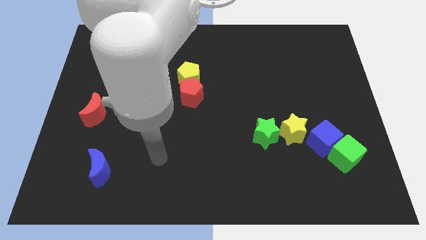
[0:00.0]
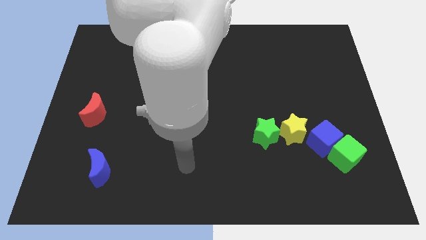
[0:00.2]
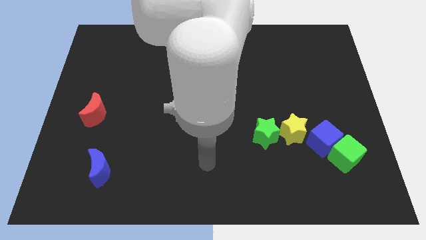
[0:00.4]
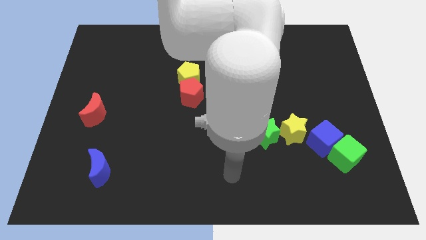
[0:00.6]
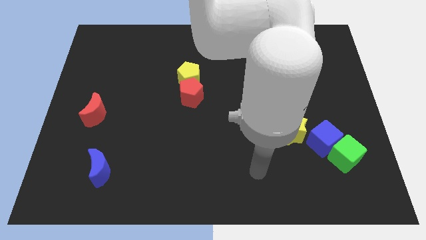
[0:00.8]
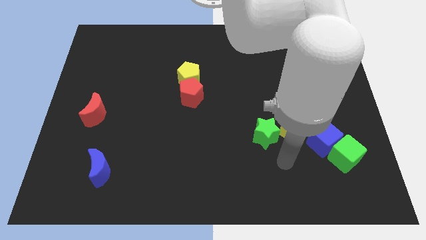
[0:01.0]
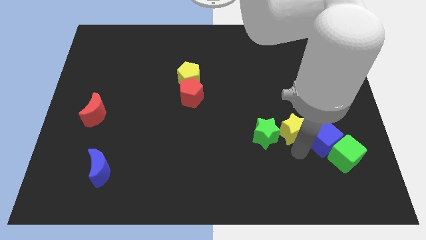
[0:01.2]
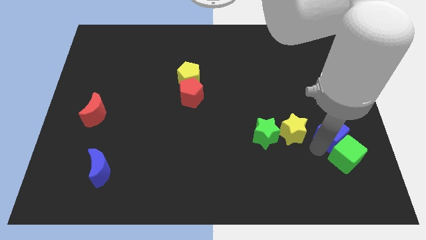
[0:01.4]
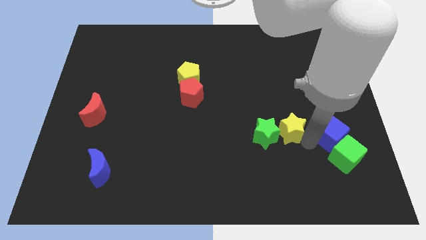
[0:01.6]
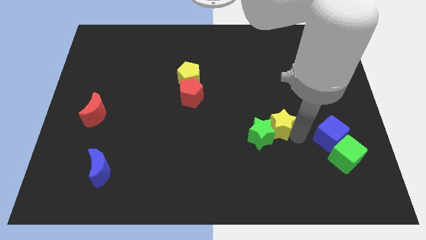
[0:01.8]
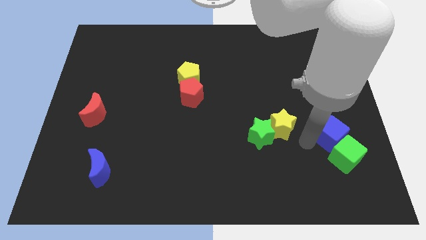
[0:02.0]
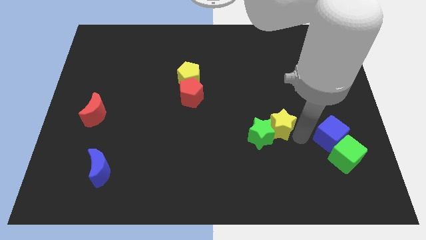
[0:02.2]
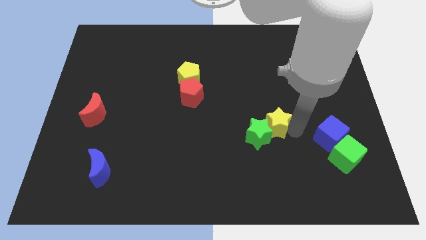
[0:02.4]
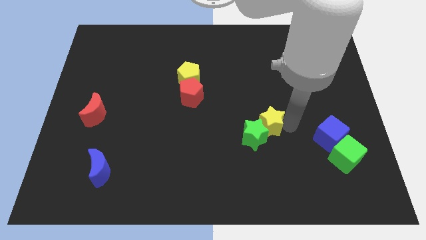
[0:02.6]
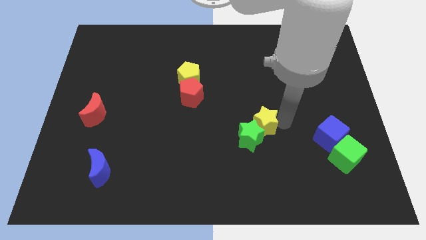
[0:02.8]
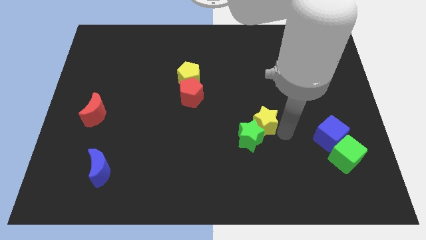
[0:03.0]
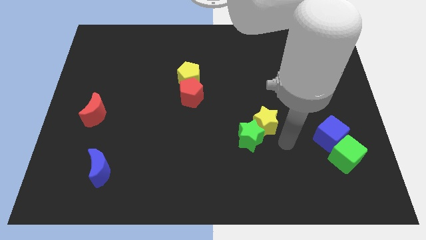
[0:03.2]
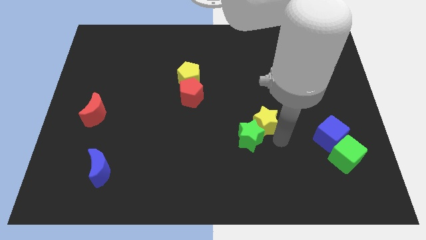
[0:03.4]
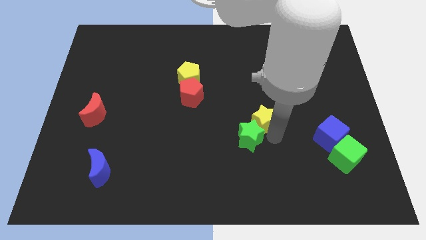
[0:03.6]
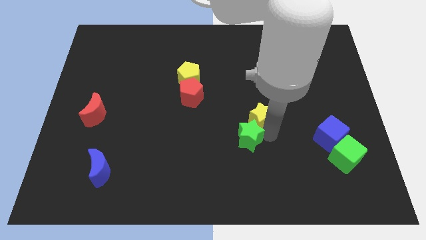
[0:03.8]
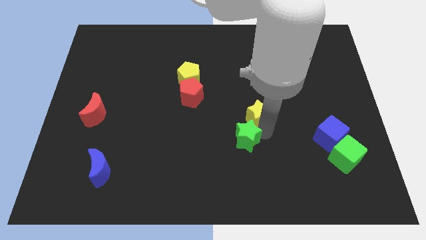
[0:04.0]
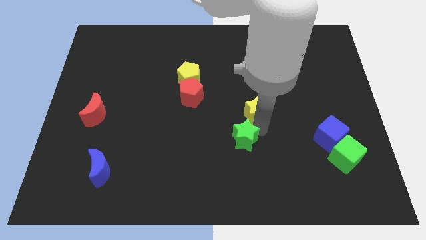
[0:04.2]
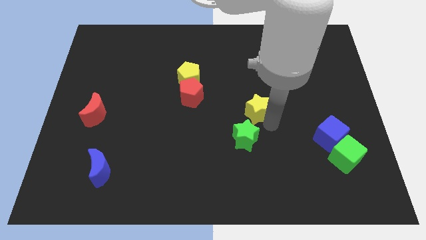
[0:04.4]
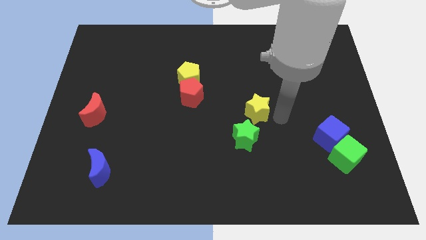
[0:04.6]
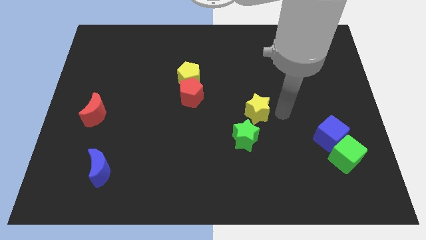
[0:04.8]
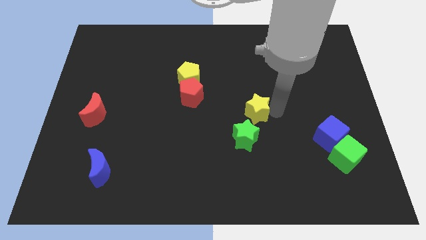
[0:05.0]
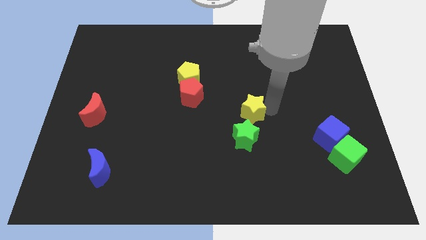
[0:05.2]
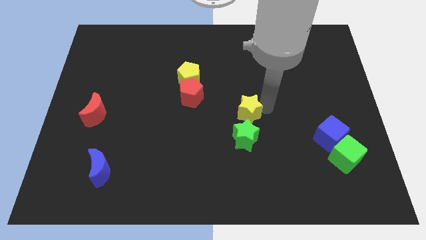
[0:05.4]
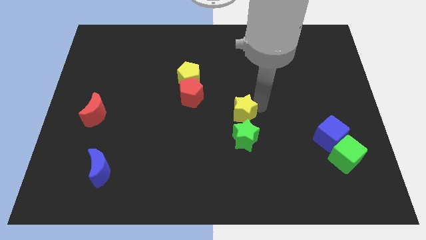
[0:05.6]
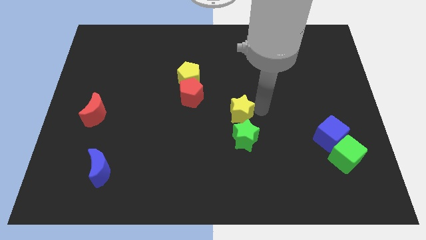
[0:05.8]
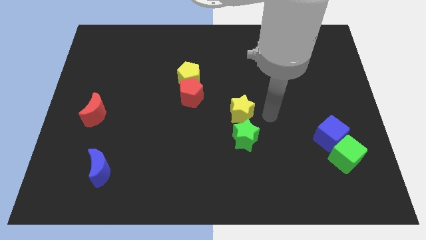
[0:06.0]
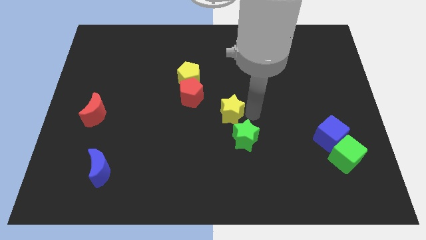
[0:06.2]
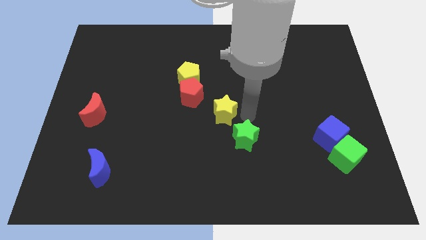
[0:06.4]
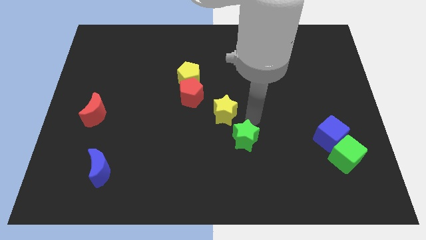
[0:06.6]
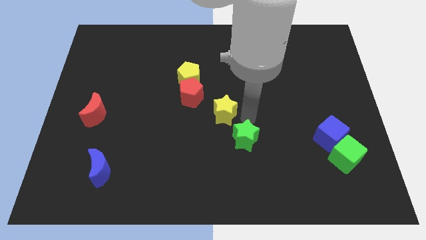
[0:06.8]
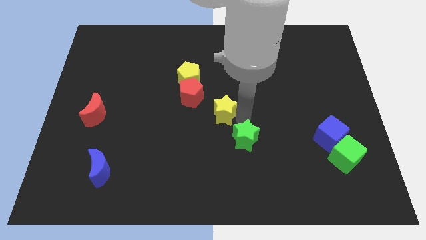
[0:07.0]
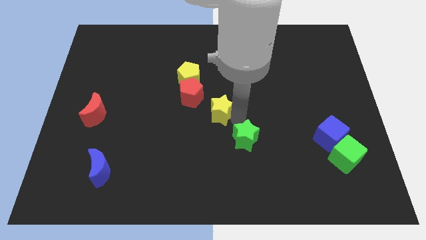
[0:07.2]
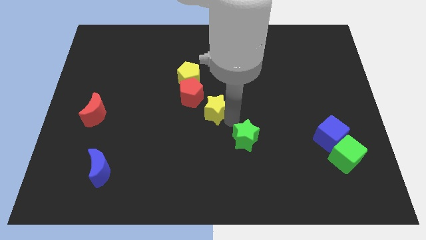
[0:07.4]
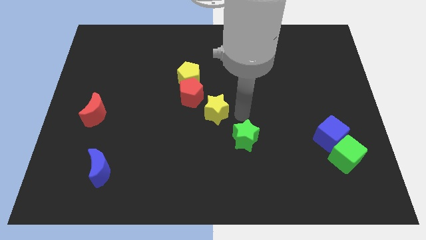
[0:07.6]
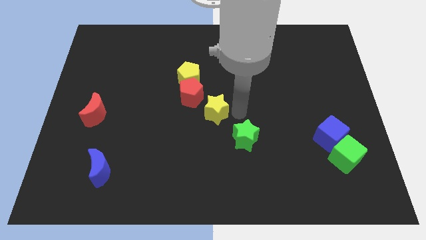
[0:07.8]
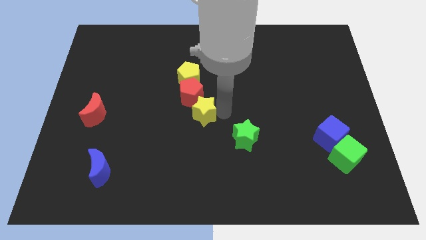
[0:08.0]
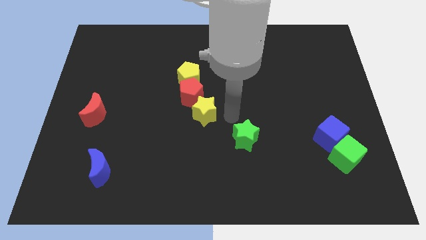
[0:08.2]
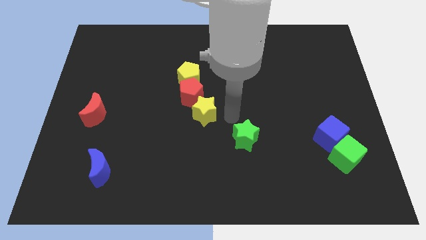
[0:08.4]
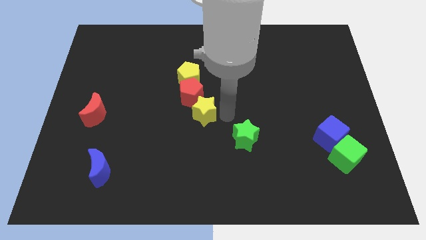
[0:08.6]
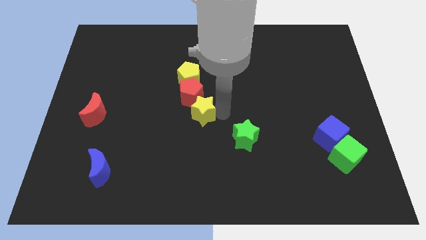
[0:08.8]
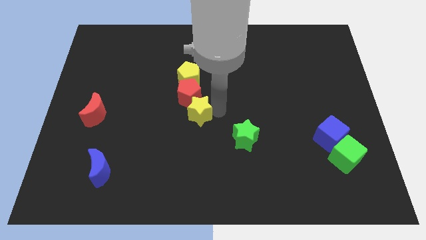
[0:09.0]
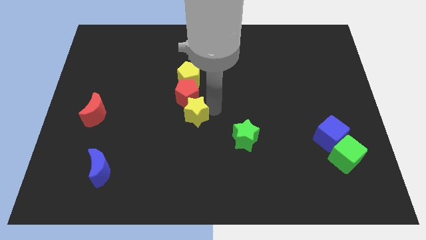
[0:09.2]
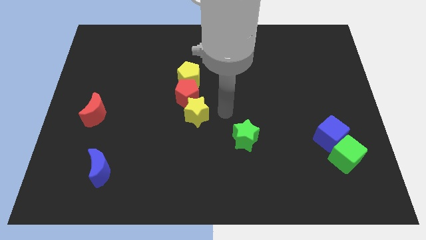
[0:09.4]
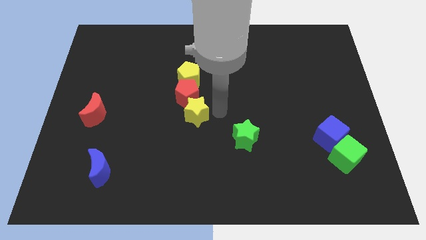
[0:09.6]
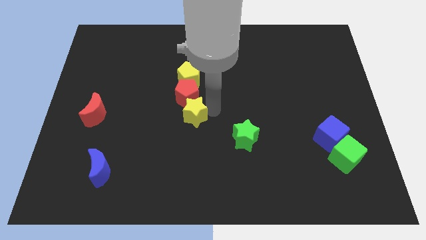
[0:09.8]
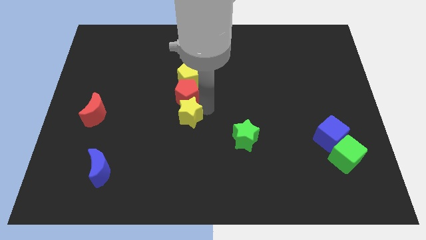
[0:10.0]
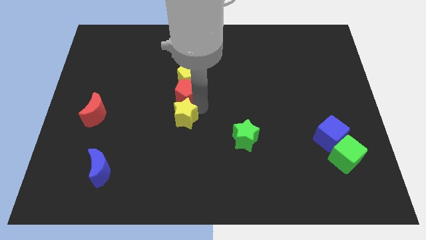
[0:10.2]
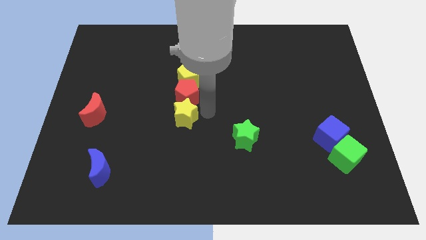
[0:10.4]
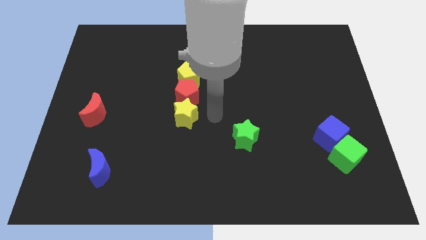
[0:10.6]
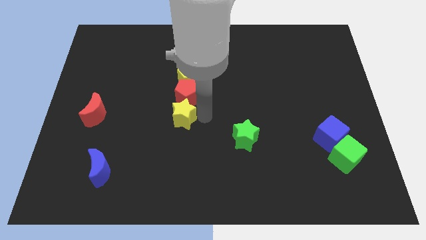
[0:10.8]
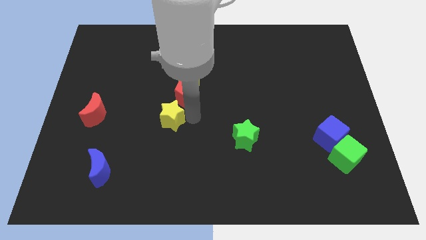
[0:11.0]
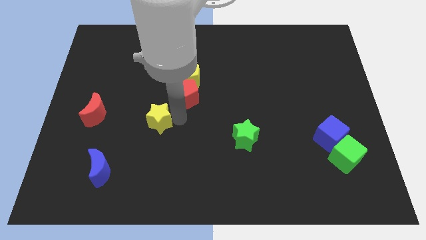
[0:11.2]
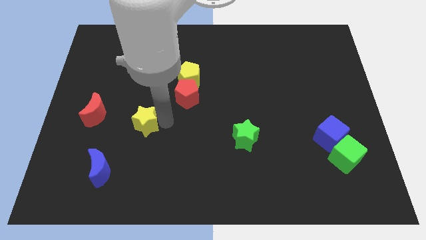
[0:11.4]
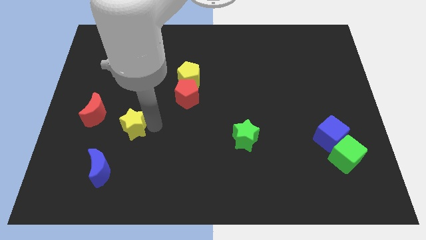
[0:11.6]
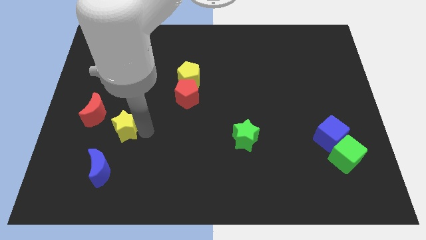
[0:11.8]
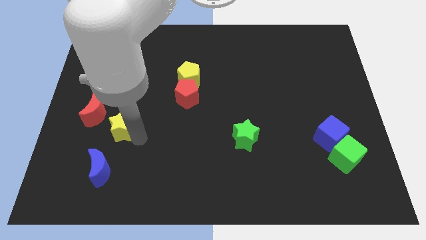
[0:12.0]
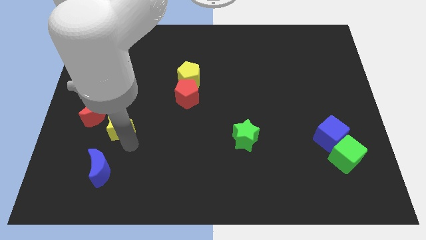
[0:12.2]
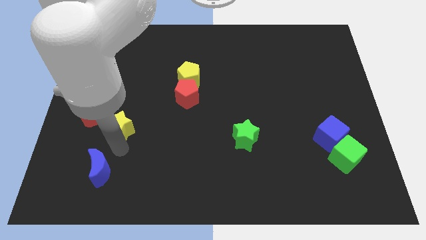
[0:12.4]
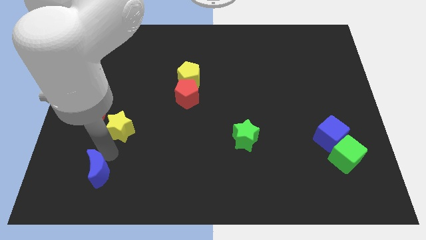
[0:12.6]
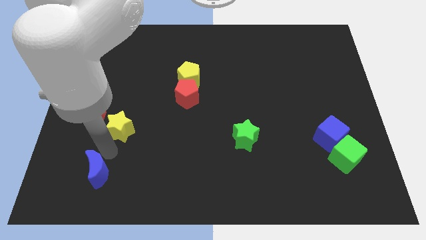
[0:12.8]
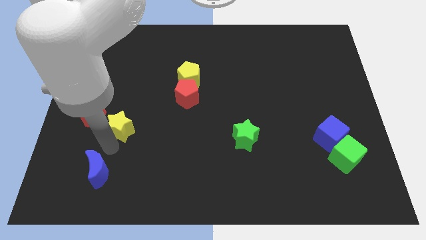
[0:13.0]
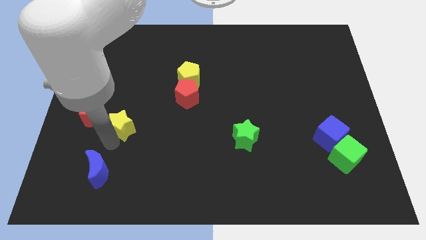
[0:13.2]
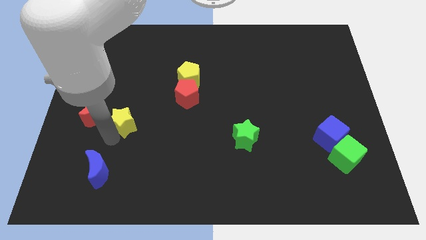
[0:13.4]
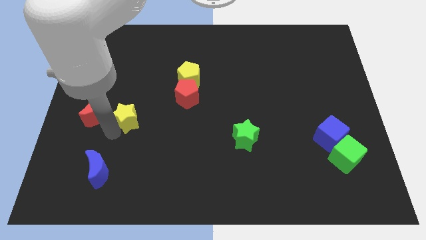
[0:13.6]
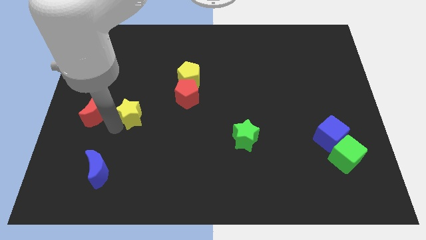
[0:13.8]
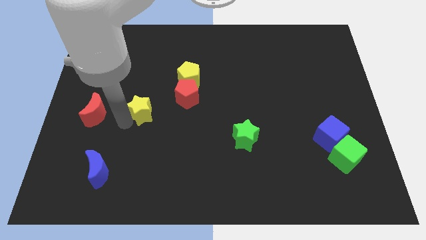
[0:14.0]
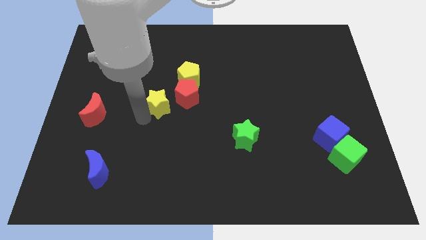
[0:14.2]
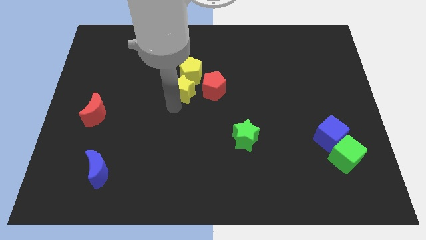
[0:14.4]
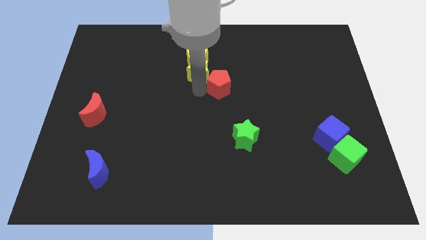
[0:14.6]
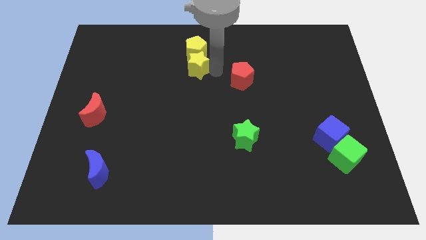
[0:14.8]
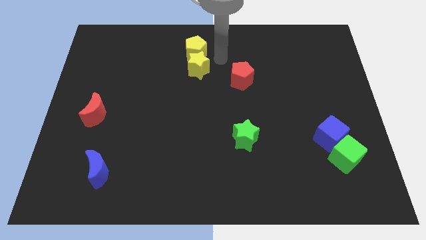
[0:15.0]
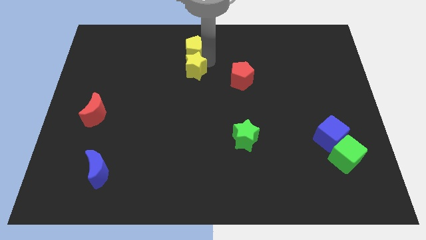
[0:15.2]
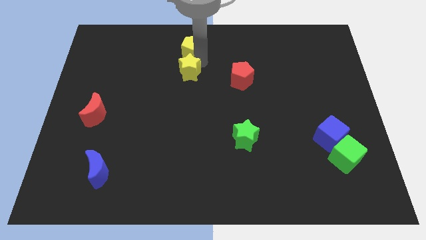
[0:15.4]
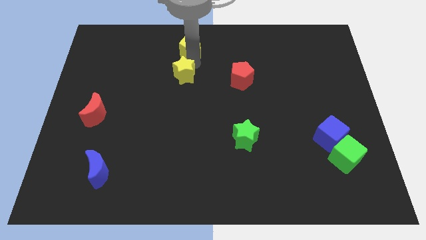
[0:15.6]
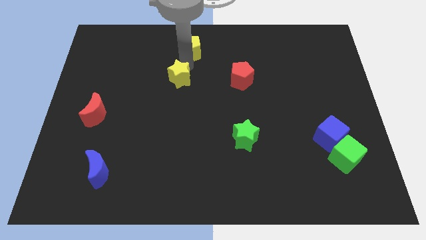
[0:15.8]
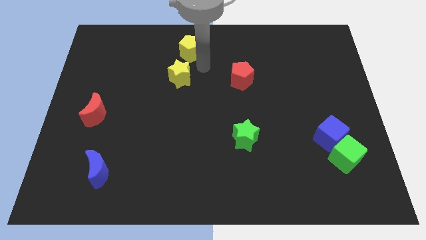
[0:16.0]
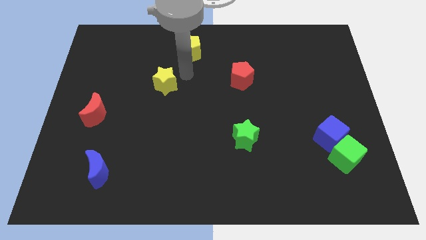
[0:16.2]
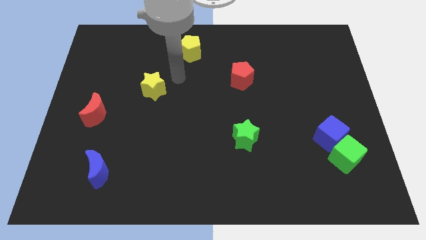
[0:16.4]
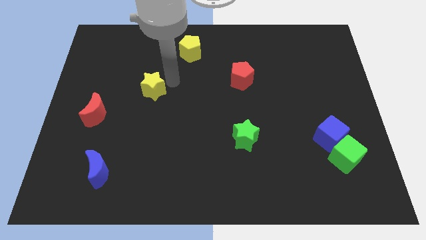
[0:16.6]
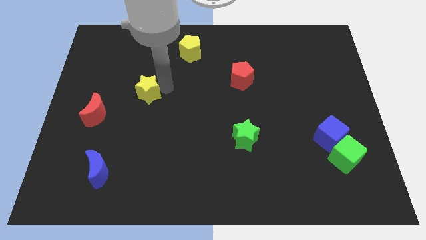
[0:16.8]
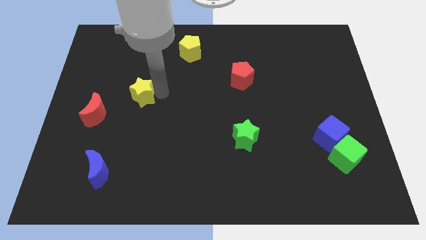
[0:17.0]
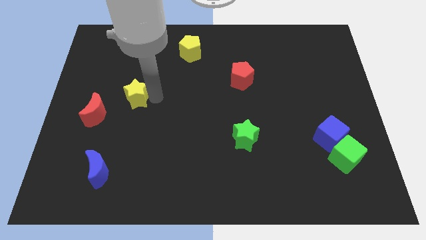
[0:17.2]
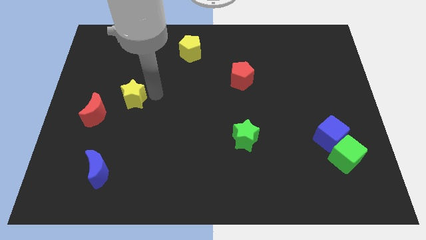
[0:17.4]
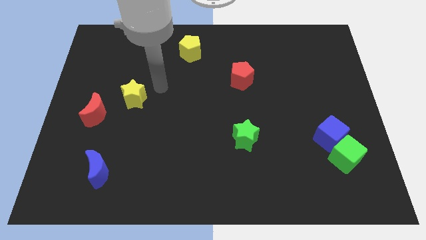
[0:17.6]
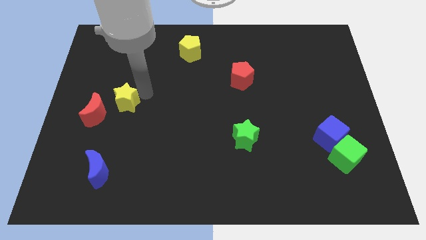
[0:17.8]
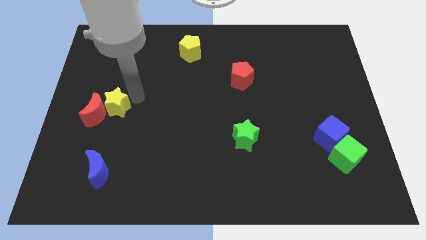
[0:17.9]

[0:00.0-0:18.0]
push the yellow star close to the red moon
